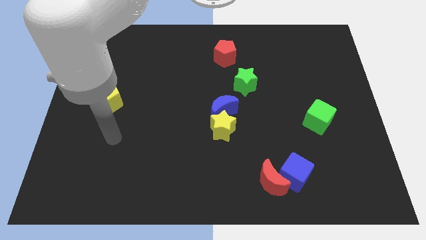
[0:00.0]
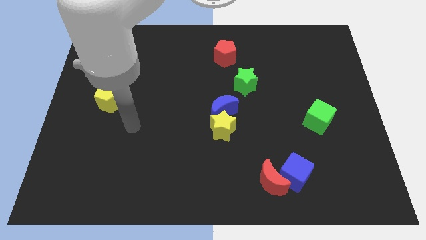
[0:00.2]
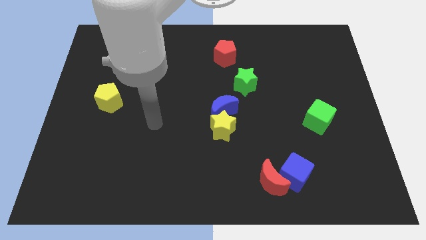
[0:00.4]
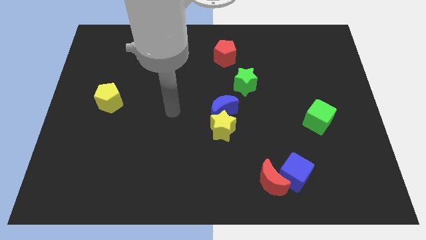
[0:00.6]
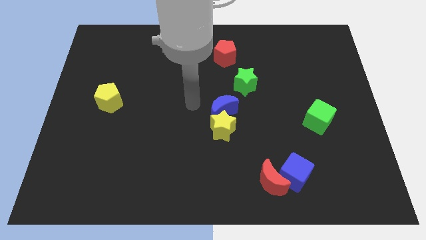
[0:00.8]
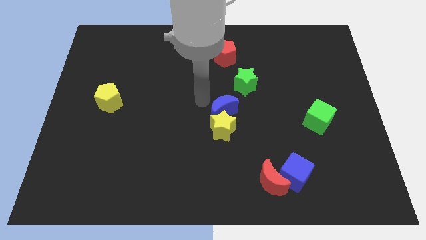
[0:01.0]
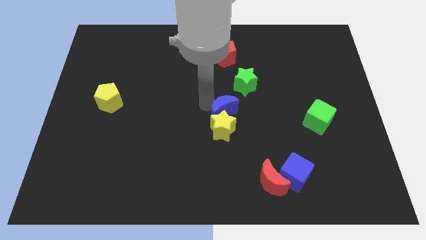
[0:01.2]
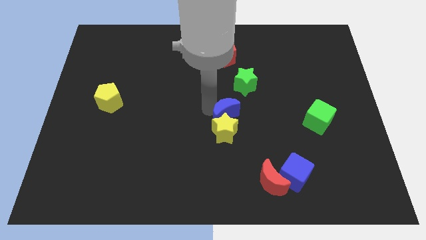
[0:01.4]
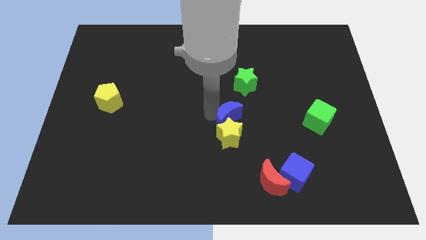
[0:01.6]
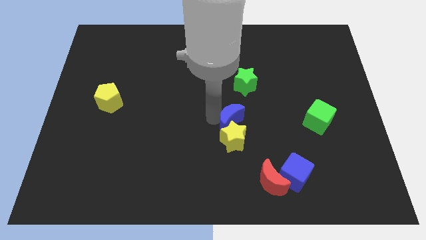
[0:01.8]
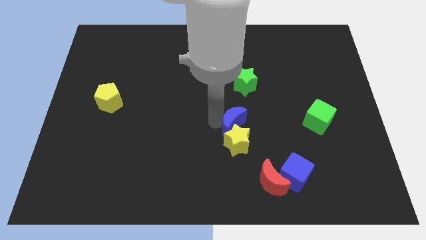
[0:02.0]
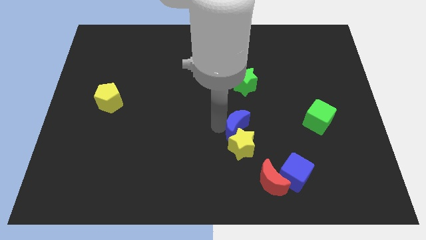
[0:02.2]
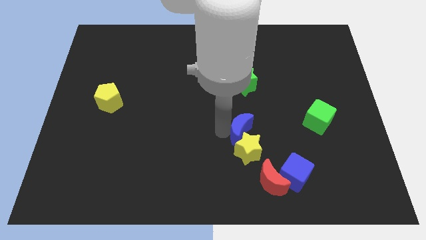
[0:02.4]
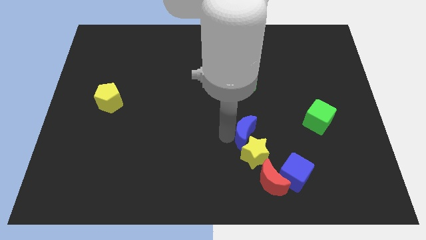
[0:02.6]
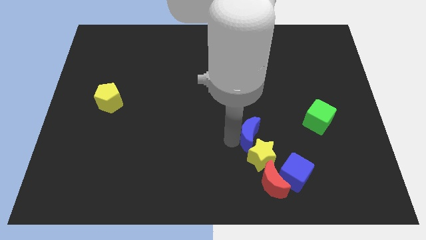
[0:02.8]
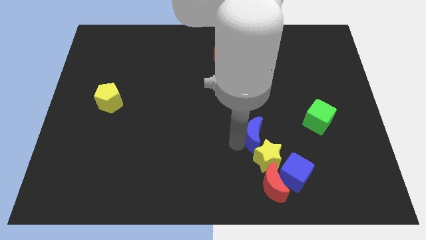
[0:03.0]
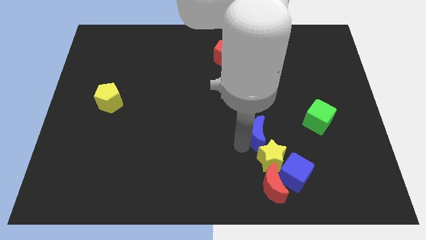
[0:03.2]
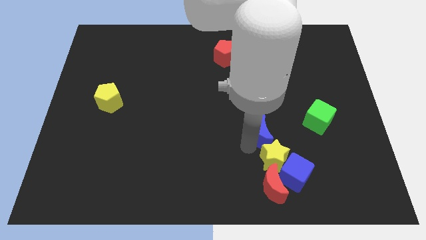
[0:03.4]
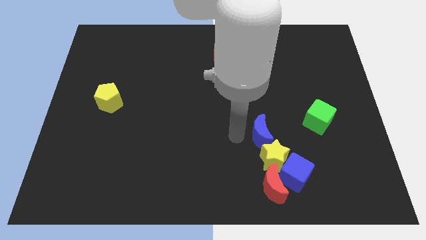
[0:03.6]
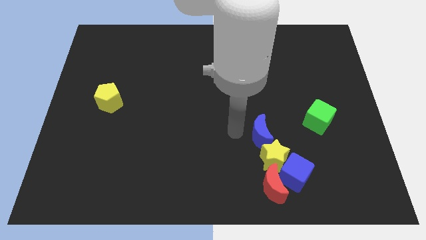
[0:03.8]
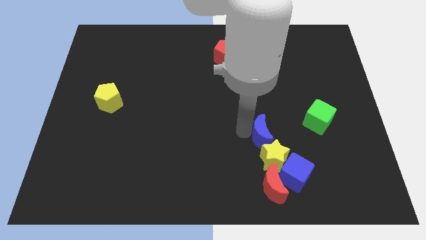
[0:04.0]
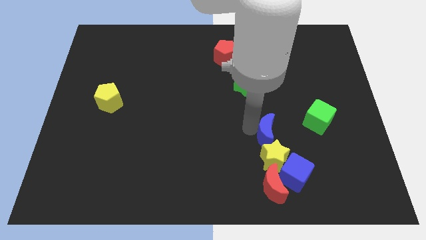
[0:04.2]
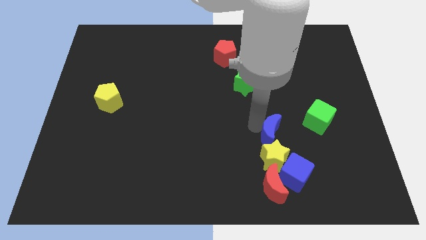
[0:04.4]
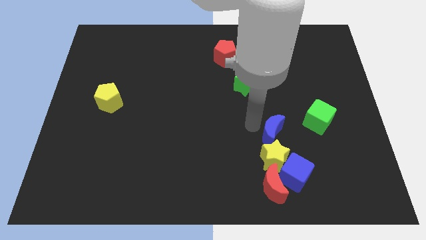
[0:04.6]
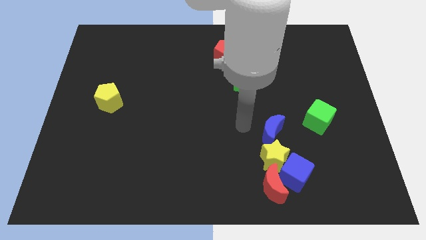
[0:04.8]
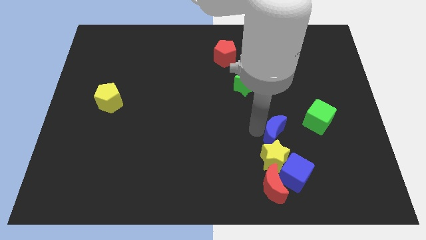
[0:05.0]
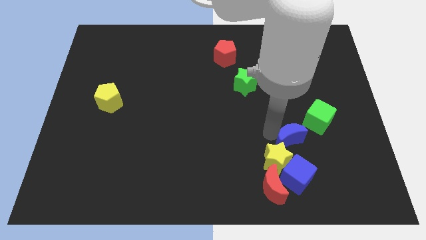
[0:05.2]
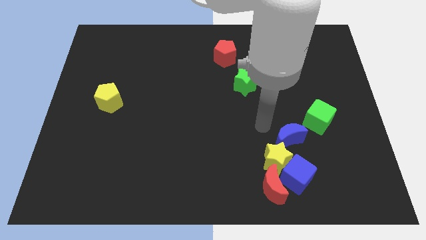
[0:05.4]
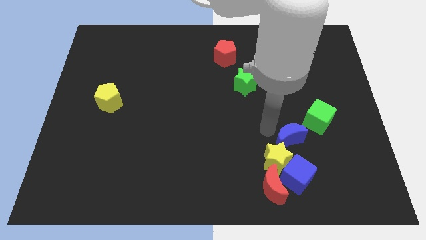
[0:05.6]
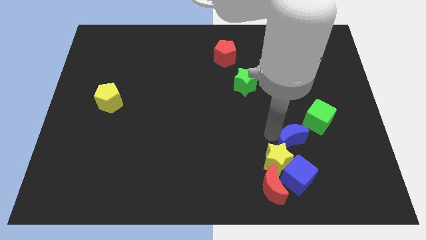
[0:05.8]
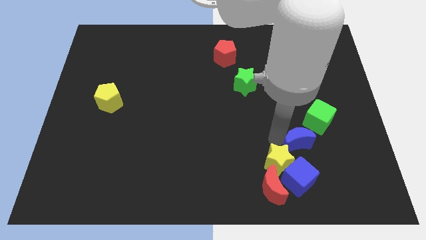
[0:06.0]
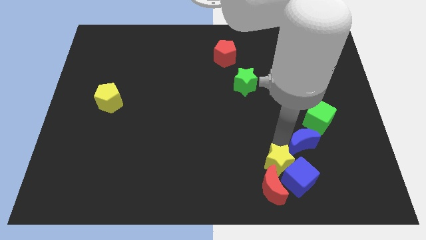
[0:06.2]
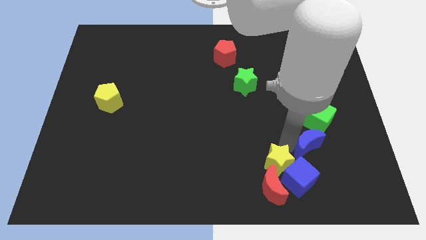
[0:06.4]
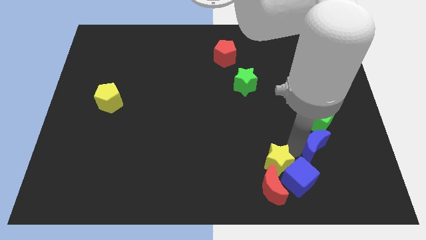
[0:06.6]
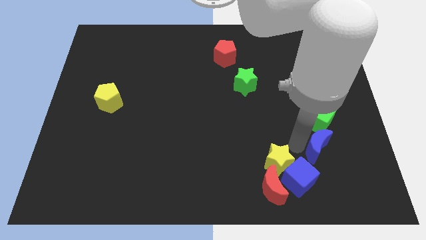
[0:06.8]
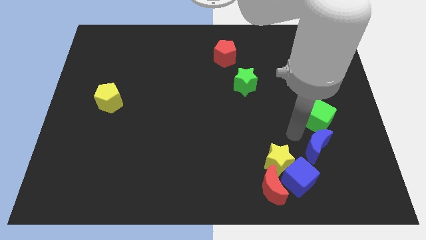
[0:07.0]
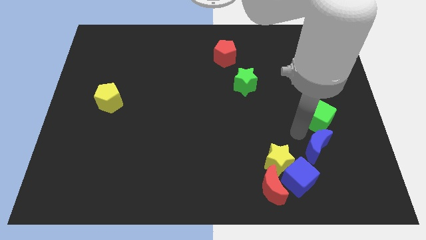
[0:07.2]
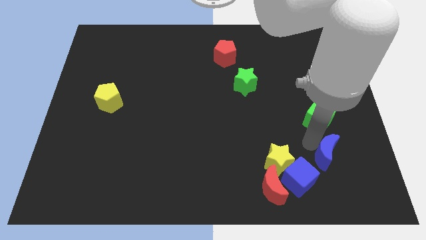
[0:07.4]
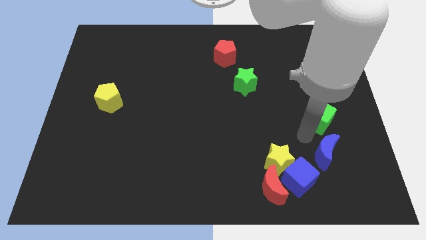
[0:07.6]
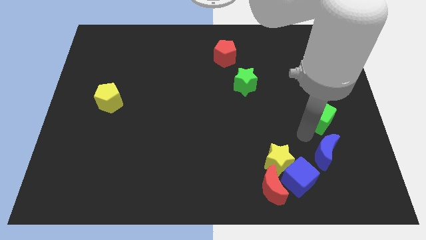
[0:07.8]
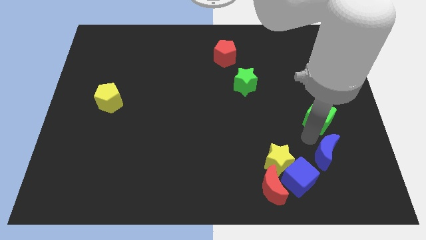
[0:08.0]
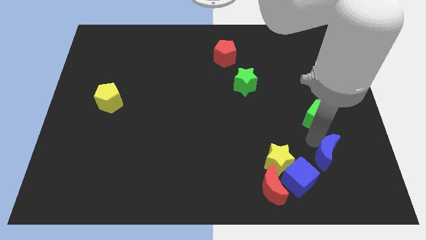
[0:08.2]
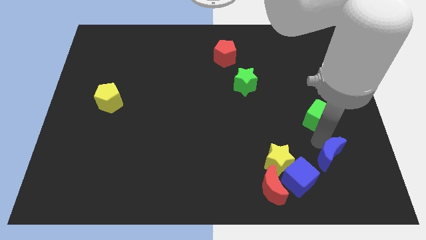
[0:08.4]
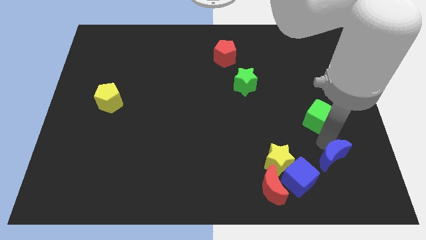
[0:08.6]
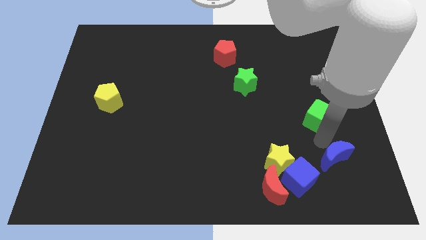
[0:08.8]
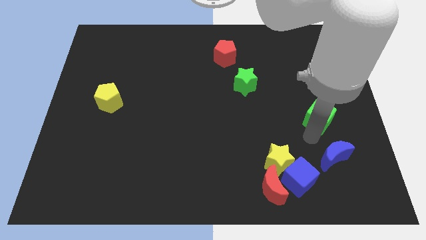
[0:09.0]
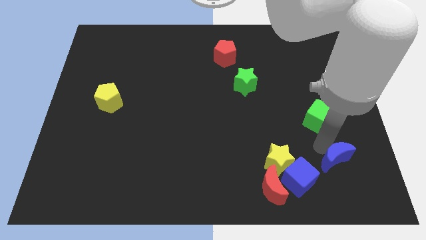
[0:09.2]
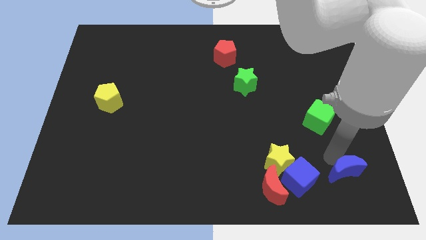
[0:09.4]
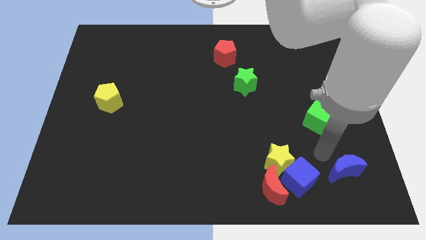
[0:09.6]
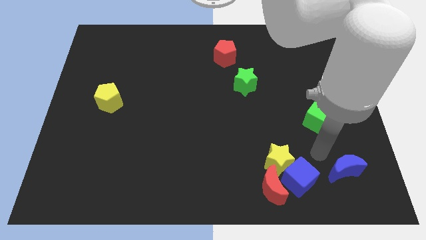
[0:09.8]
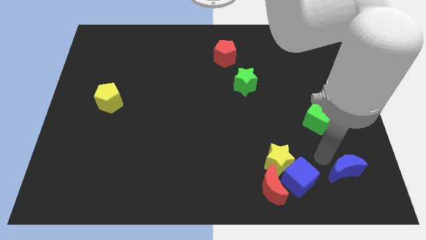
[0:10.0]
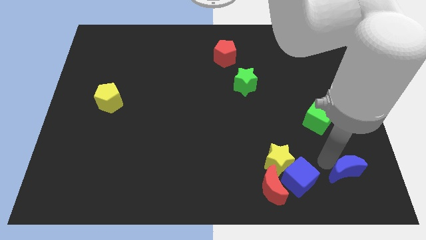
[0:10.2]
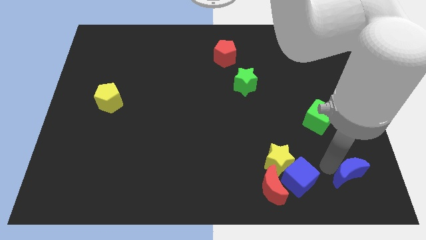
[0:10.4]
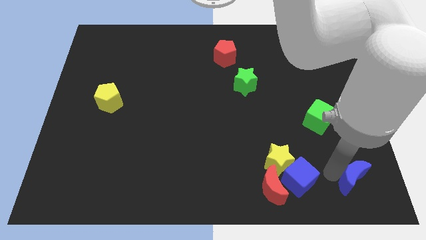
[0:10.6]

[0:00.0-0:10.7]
push the blue moon to the bottom right

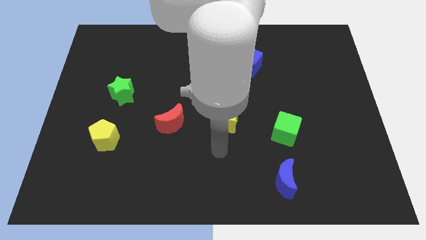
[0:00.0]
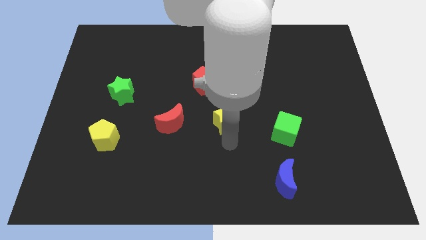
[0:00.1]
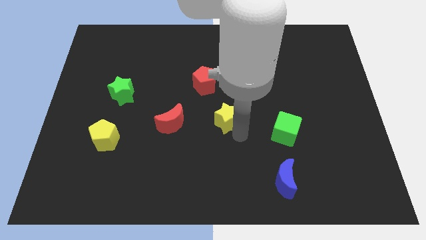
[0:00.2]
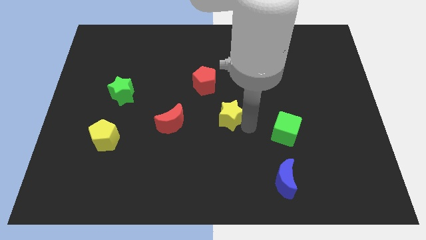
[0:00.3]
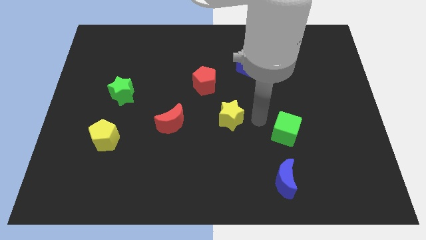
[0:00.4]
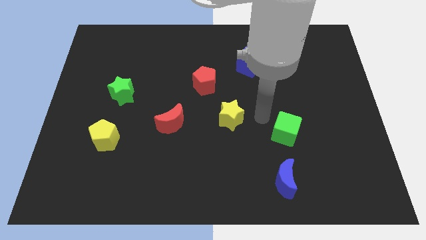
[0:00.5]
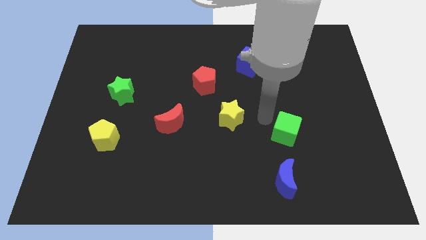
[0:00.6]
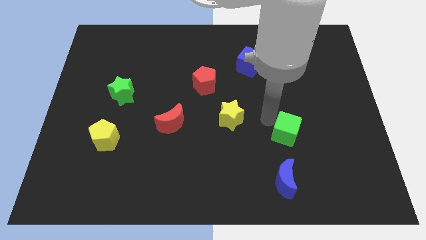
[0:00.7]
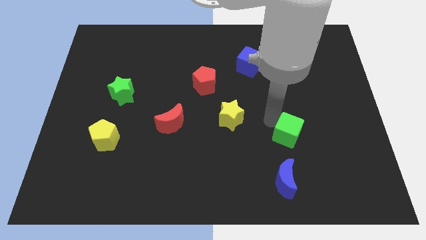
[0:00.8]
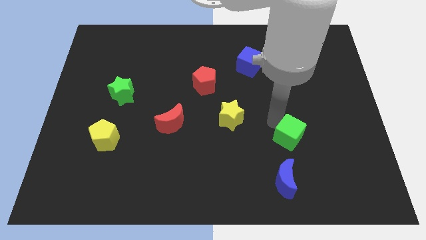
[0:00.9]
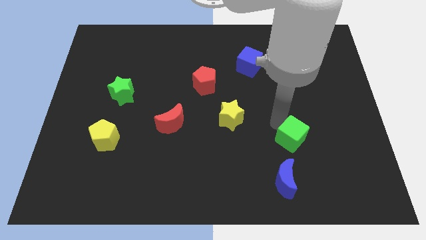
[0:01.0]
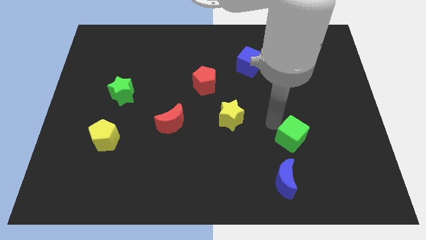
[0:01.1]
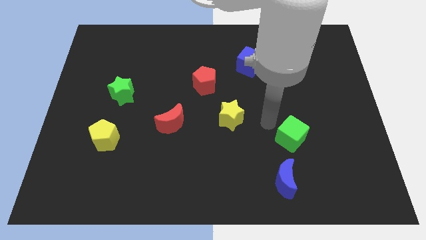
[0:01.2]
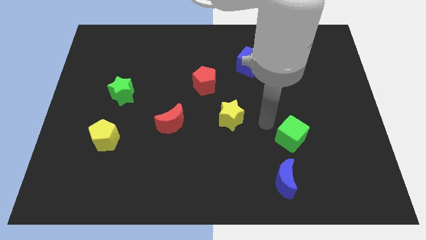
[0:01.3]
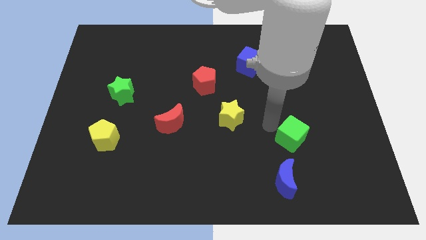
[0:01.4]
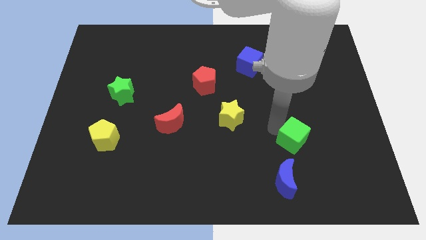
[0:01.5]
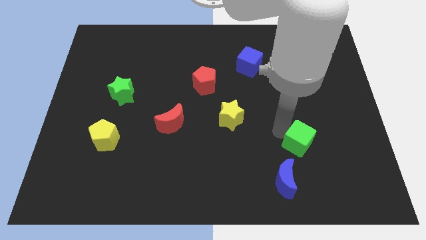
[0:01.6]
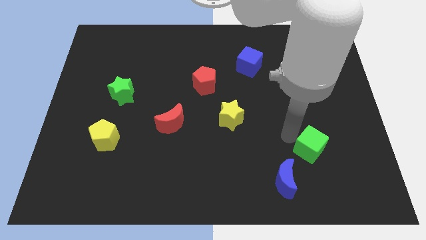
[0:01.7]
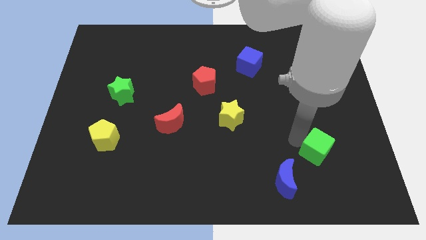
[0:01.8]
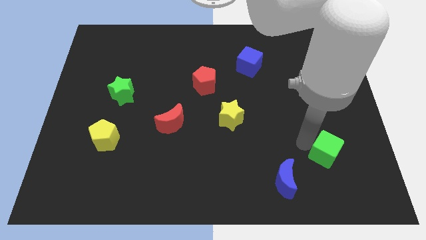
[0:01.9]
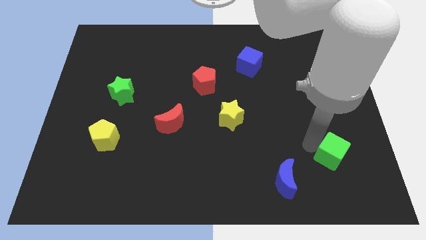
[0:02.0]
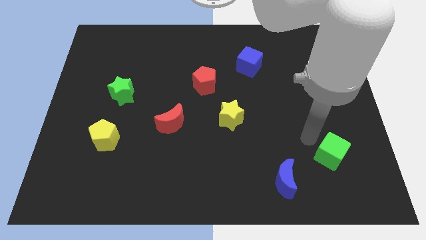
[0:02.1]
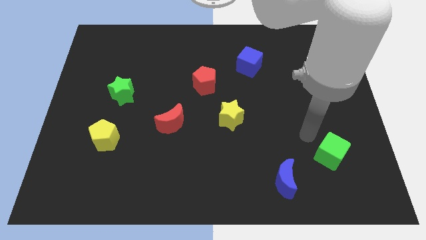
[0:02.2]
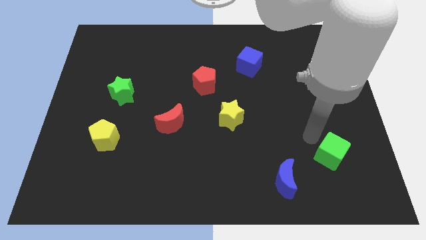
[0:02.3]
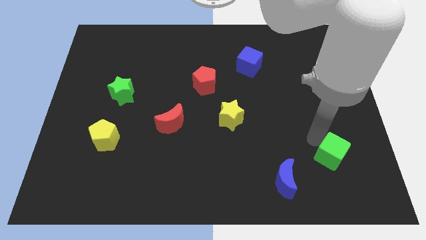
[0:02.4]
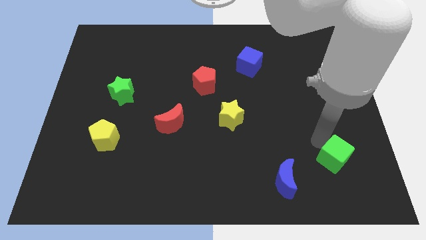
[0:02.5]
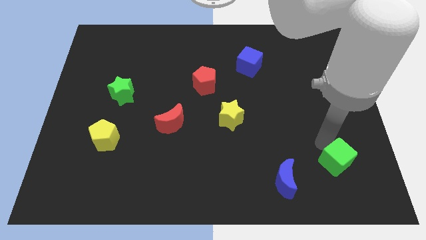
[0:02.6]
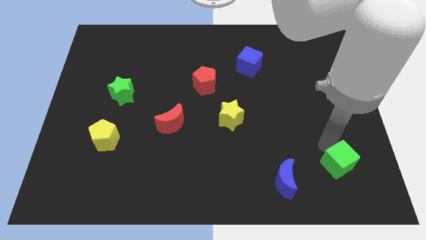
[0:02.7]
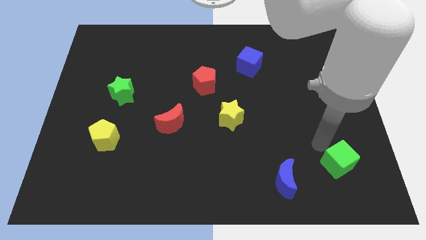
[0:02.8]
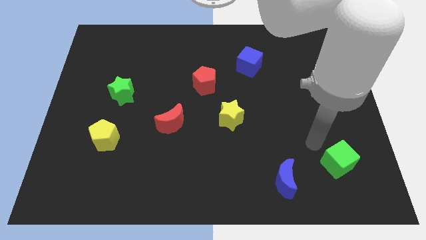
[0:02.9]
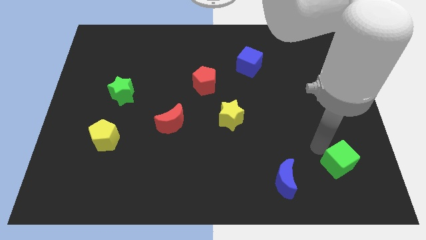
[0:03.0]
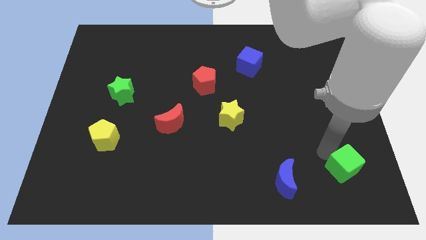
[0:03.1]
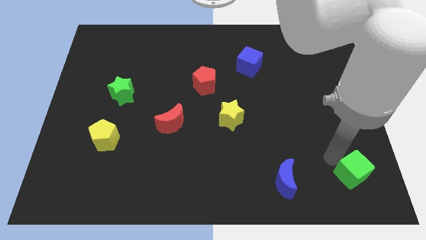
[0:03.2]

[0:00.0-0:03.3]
push the green cube to the lower right corner
